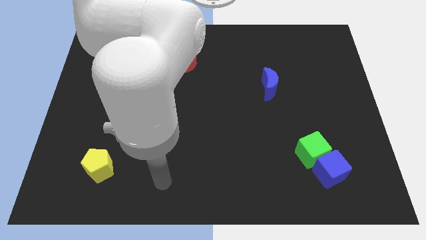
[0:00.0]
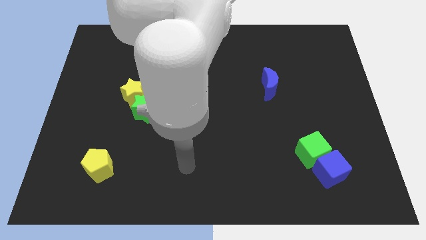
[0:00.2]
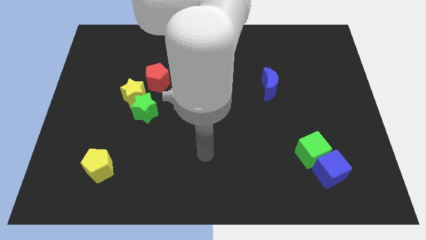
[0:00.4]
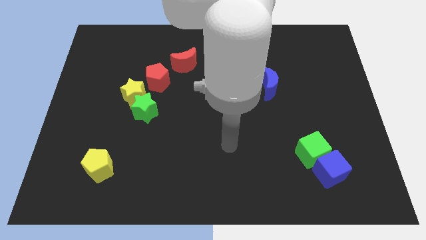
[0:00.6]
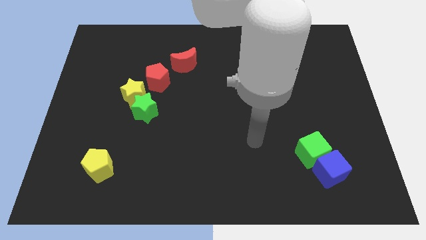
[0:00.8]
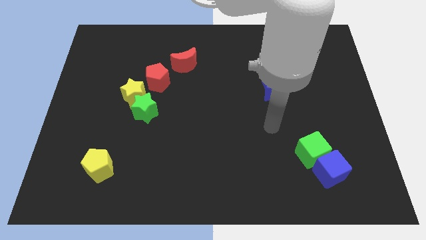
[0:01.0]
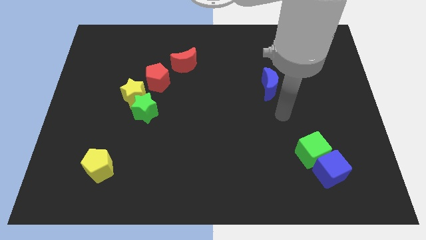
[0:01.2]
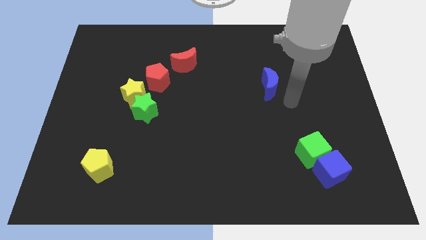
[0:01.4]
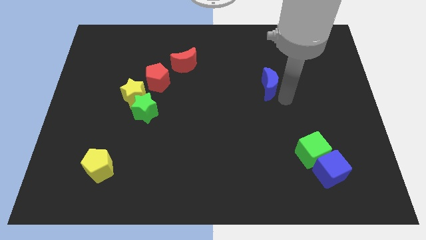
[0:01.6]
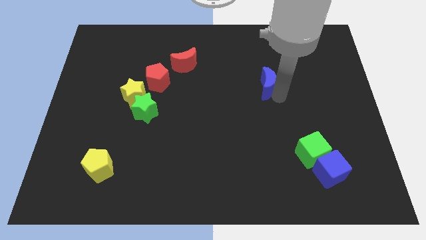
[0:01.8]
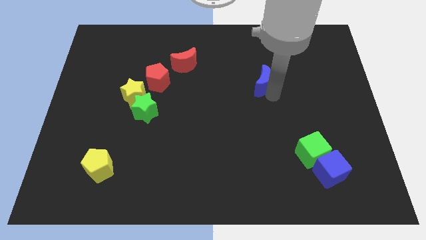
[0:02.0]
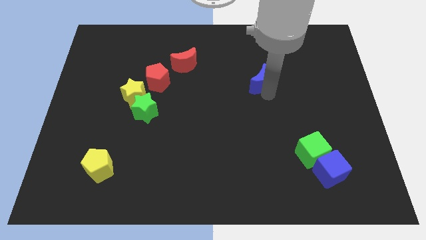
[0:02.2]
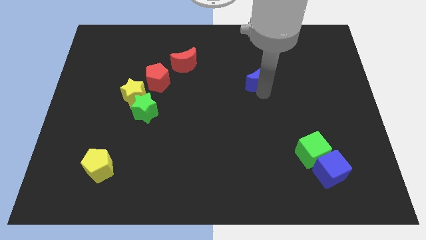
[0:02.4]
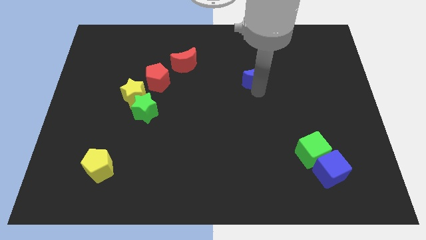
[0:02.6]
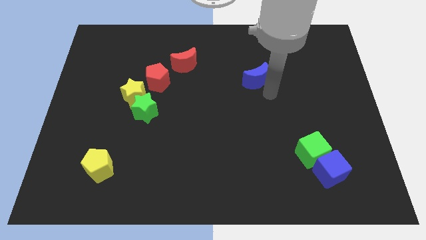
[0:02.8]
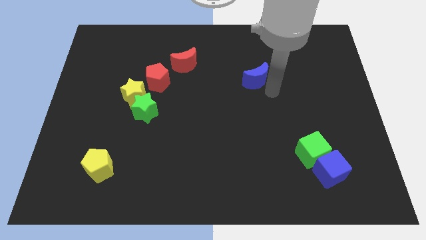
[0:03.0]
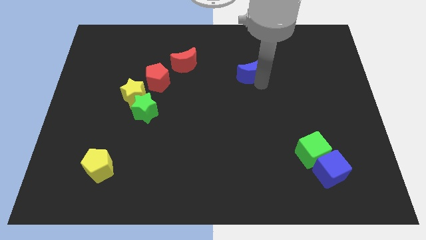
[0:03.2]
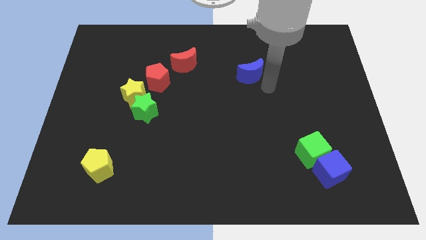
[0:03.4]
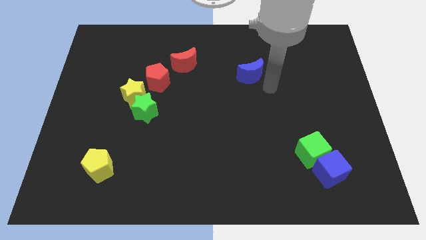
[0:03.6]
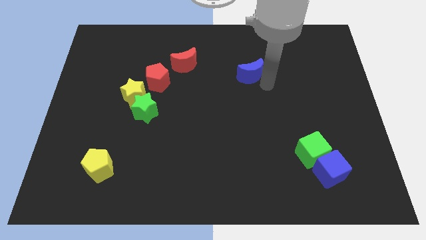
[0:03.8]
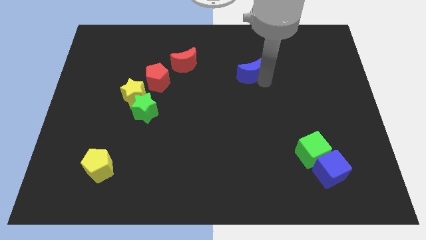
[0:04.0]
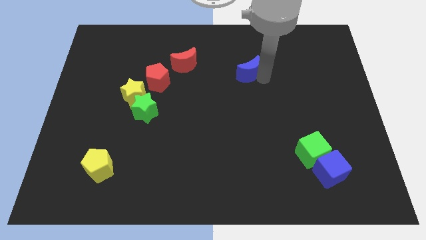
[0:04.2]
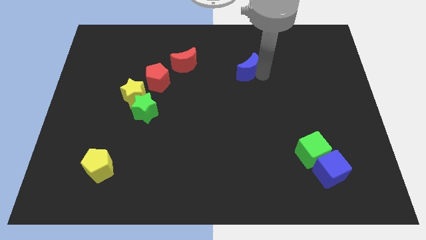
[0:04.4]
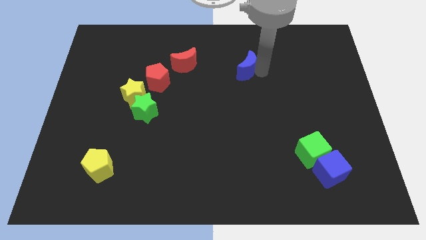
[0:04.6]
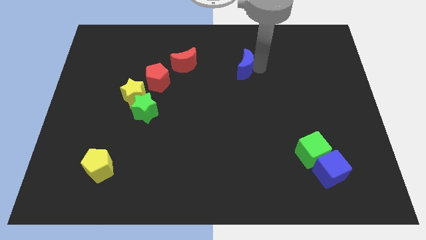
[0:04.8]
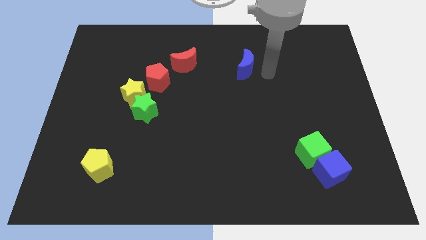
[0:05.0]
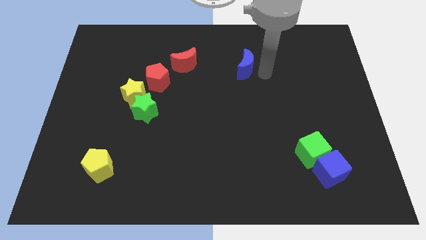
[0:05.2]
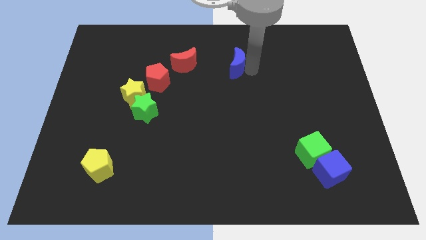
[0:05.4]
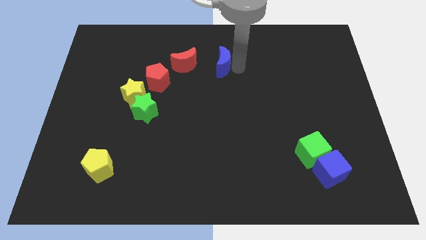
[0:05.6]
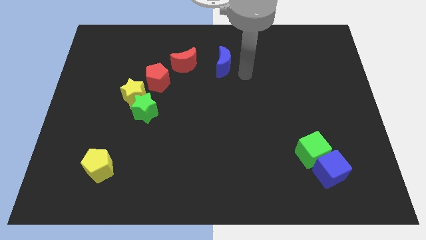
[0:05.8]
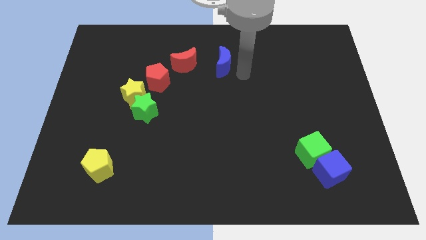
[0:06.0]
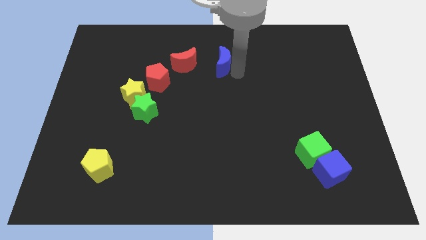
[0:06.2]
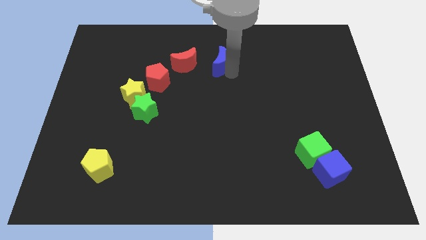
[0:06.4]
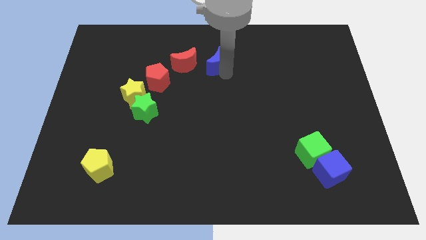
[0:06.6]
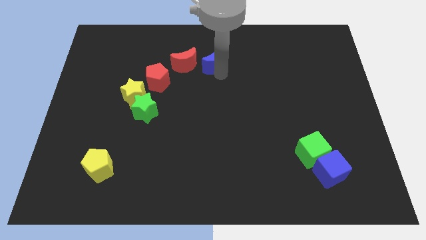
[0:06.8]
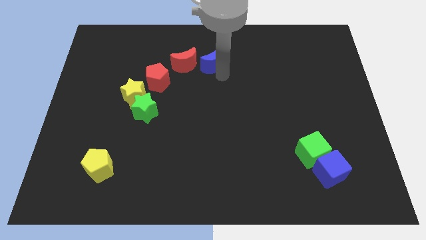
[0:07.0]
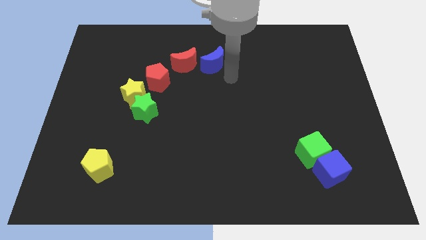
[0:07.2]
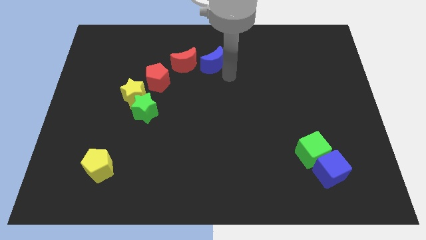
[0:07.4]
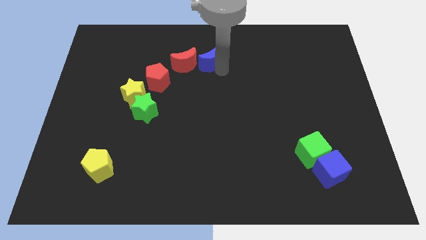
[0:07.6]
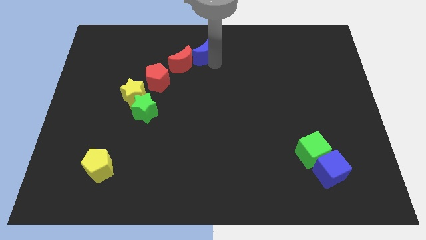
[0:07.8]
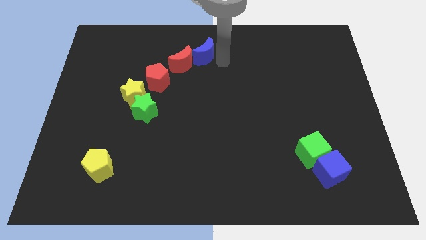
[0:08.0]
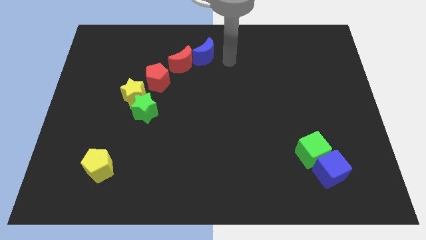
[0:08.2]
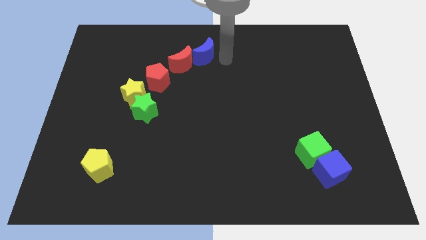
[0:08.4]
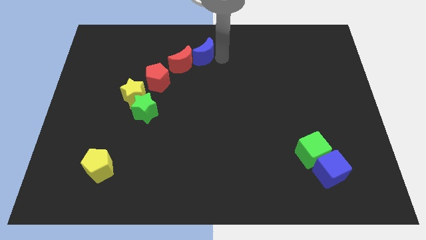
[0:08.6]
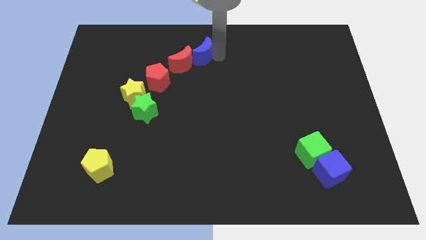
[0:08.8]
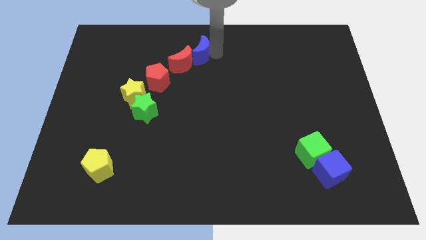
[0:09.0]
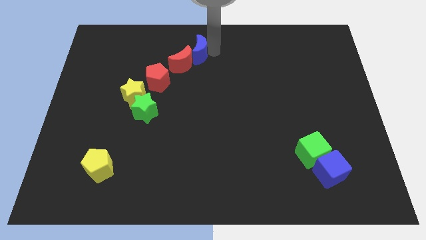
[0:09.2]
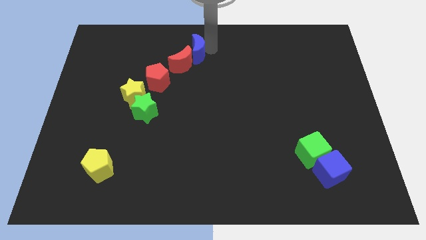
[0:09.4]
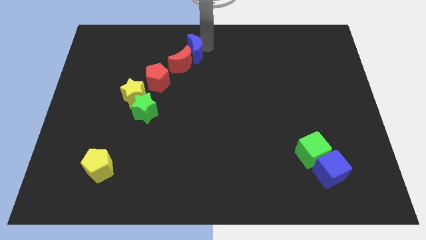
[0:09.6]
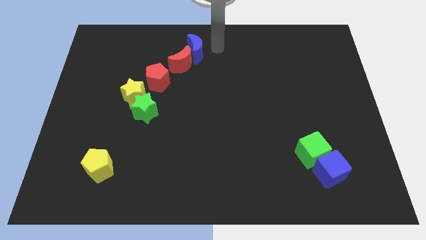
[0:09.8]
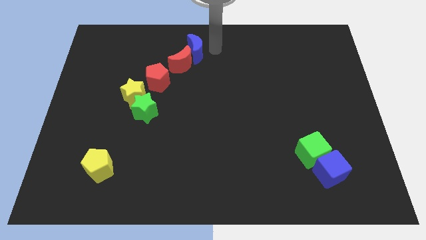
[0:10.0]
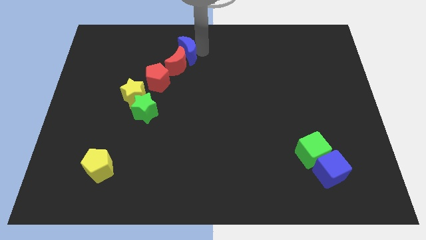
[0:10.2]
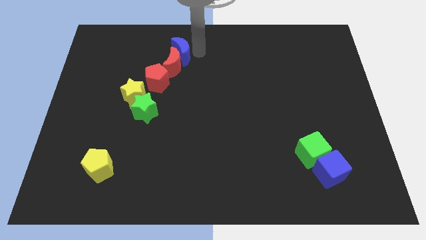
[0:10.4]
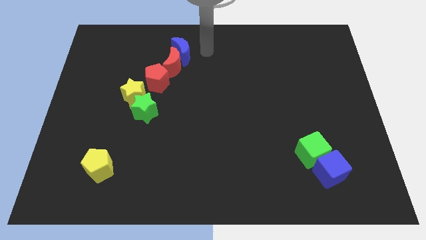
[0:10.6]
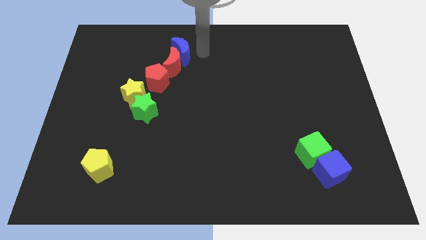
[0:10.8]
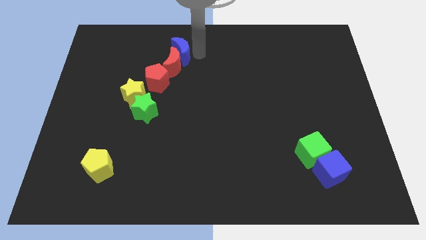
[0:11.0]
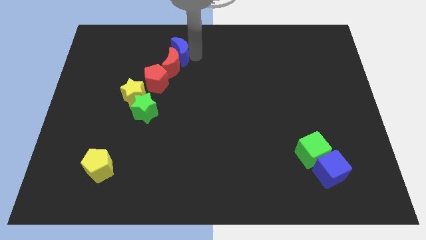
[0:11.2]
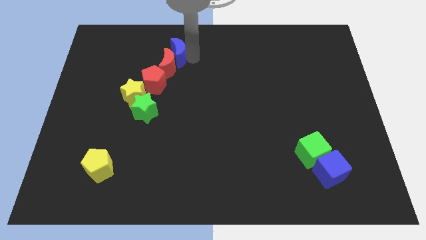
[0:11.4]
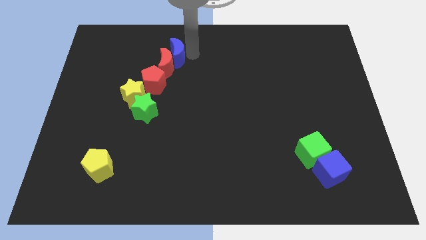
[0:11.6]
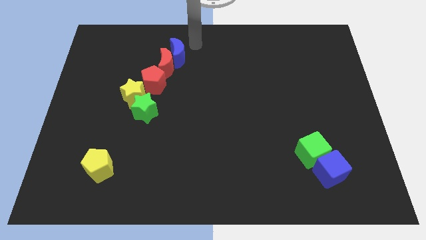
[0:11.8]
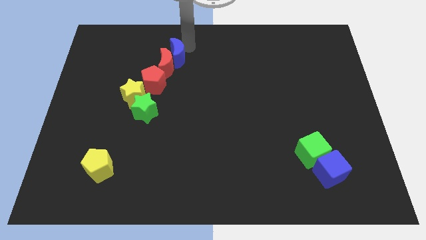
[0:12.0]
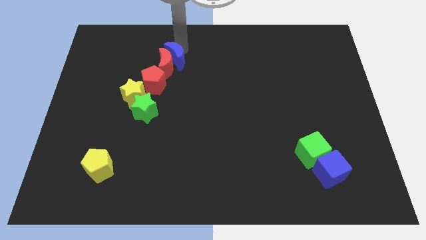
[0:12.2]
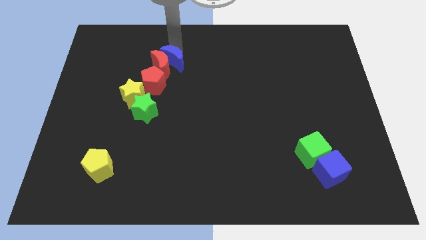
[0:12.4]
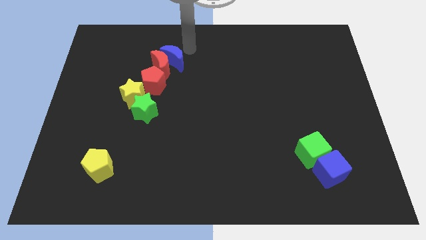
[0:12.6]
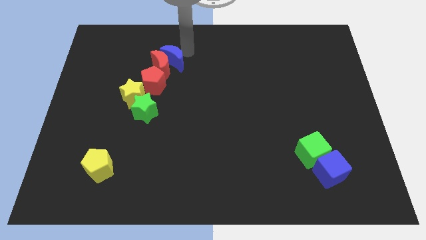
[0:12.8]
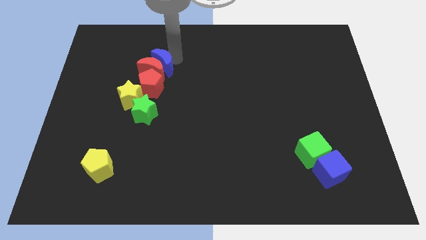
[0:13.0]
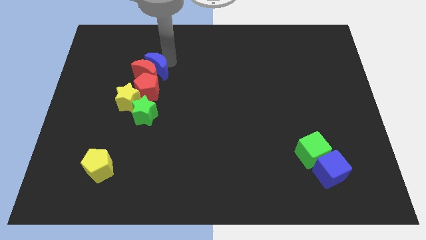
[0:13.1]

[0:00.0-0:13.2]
slide the blue moon to the top side of the green star

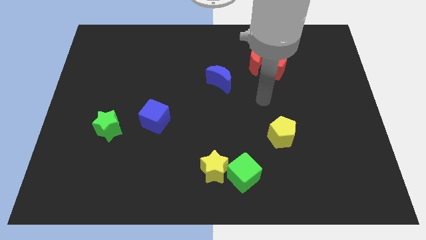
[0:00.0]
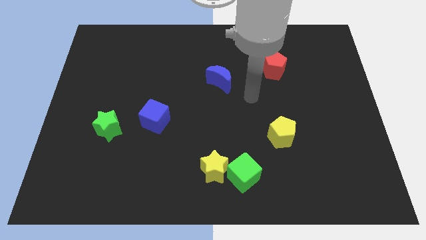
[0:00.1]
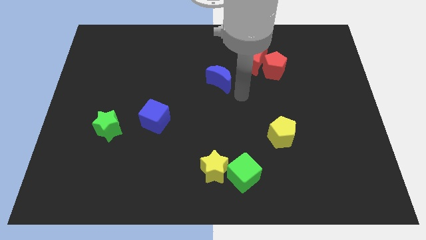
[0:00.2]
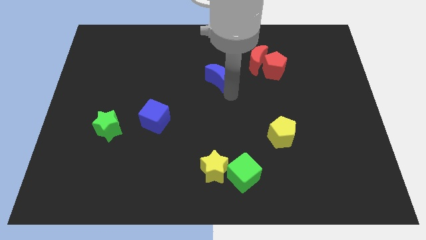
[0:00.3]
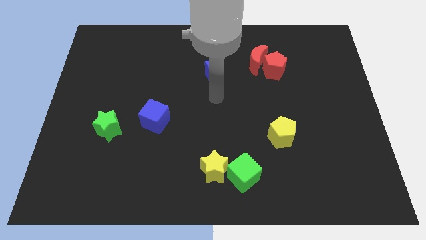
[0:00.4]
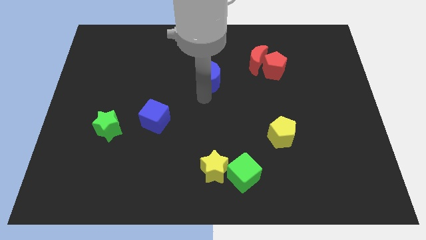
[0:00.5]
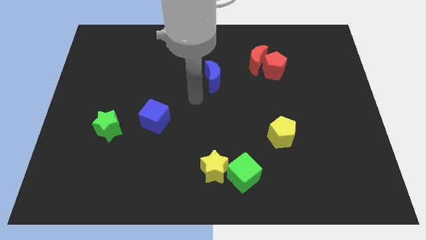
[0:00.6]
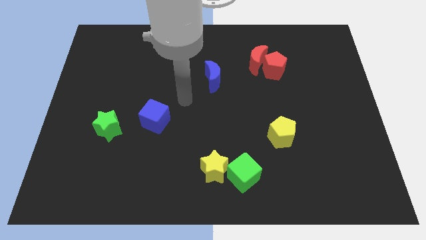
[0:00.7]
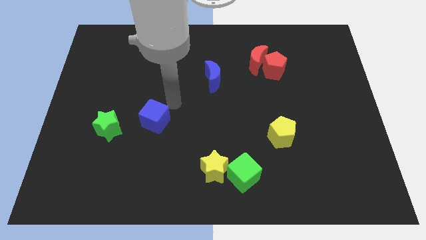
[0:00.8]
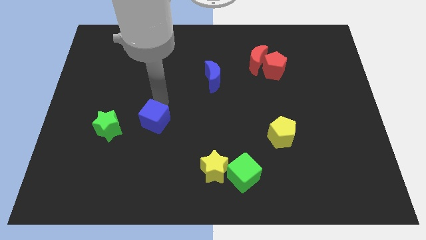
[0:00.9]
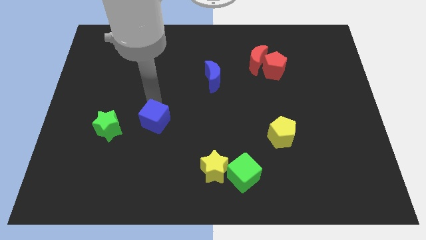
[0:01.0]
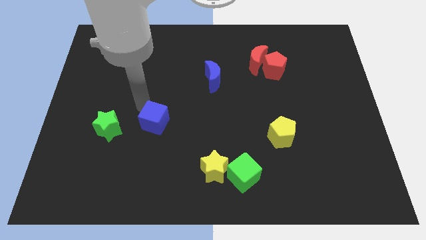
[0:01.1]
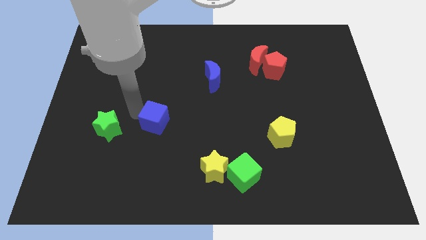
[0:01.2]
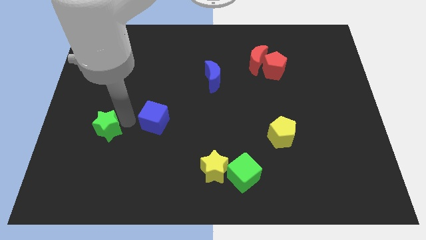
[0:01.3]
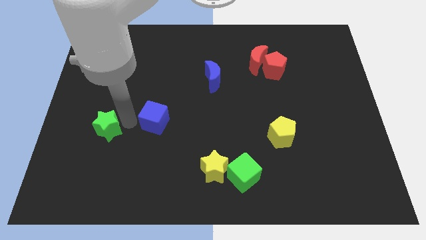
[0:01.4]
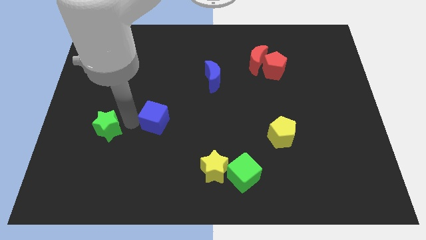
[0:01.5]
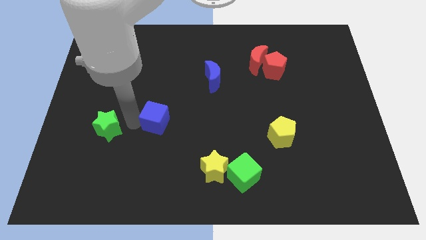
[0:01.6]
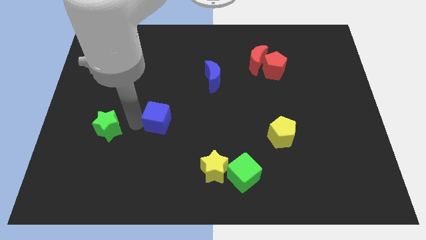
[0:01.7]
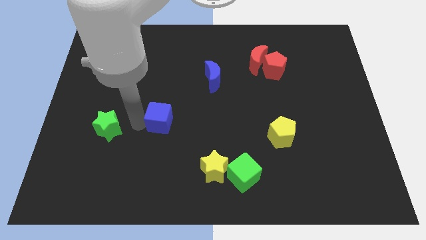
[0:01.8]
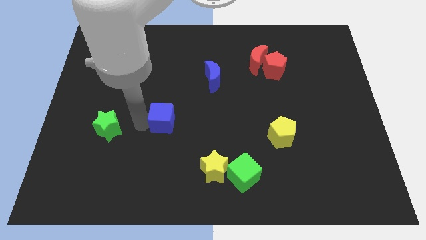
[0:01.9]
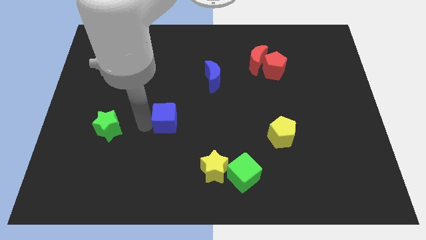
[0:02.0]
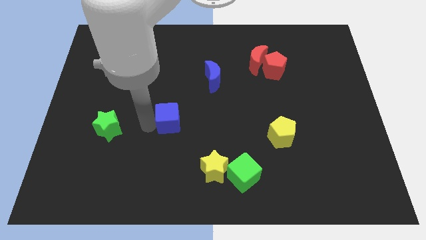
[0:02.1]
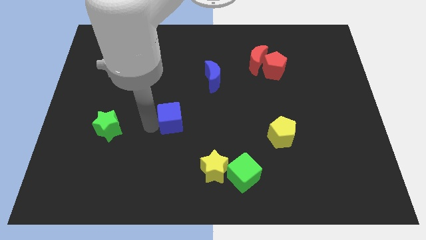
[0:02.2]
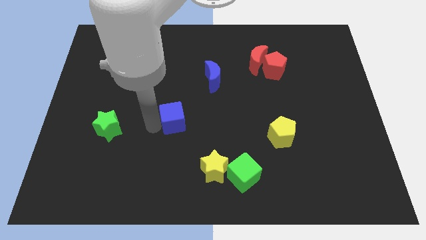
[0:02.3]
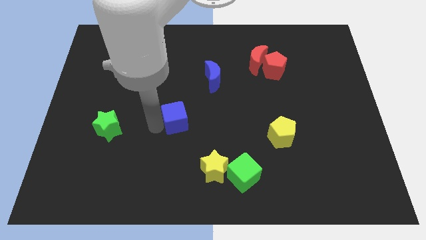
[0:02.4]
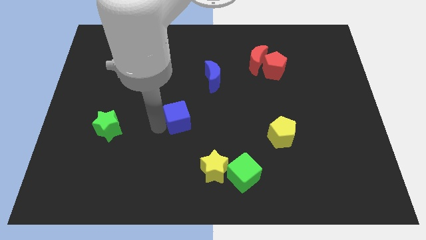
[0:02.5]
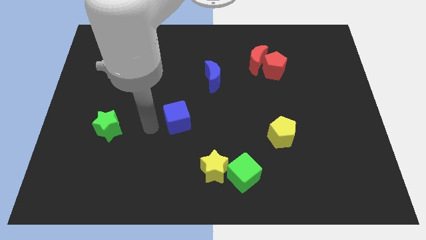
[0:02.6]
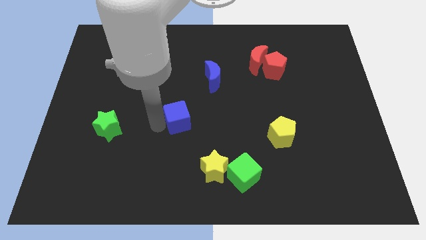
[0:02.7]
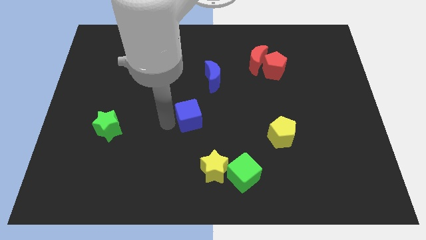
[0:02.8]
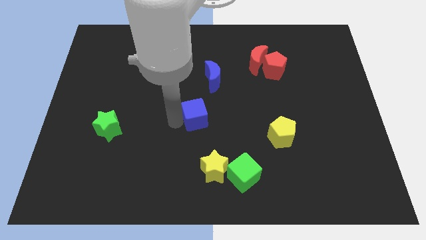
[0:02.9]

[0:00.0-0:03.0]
put the blue cube to the bottom side of the blue moon
